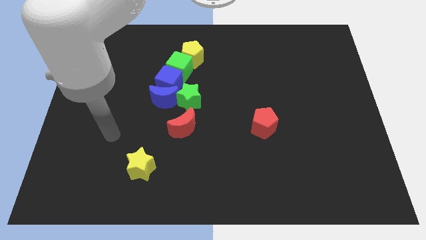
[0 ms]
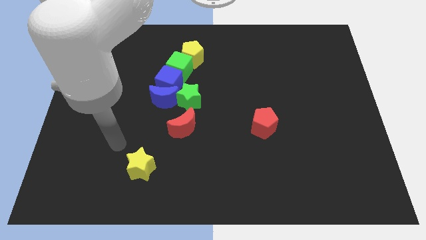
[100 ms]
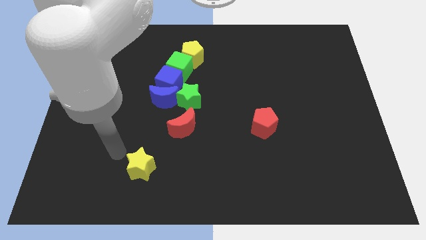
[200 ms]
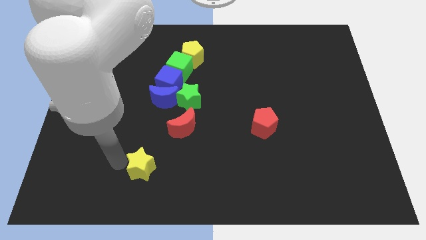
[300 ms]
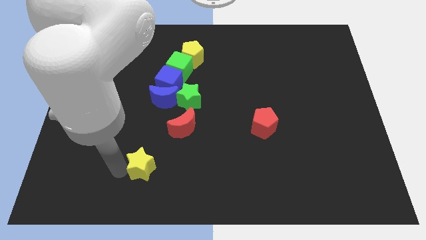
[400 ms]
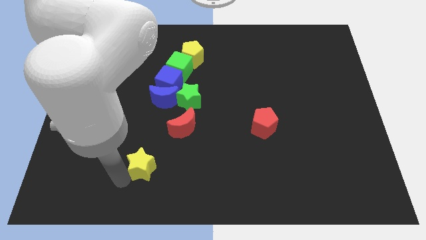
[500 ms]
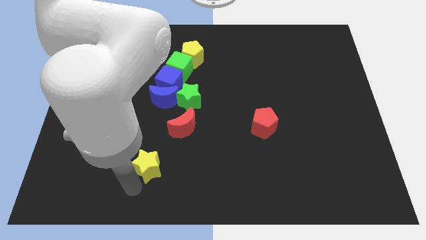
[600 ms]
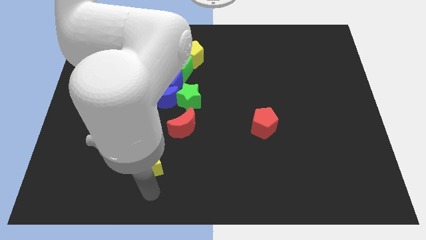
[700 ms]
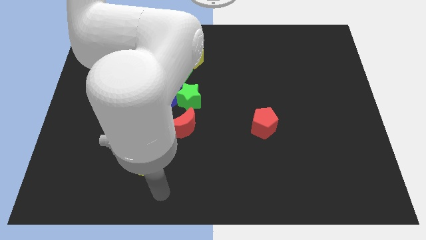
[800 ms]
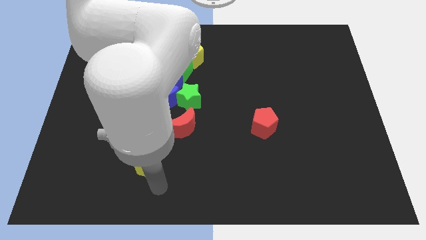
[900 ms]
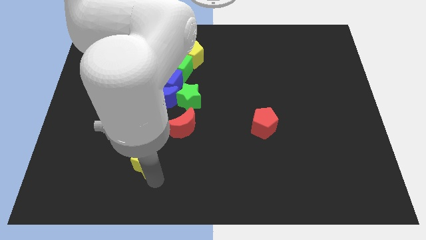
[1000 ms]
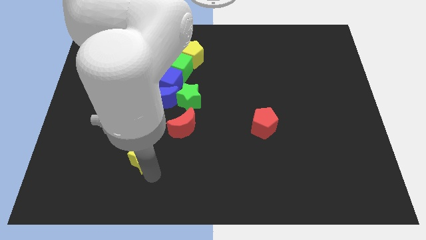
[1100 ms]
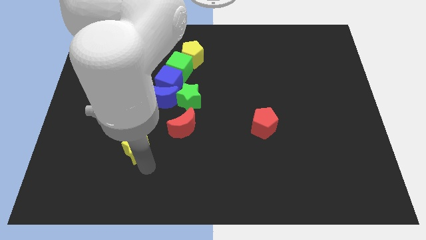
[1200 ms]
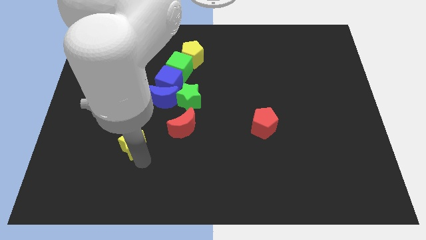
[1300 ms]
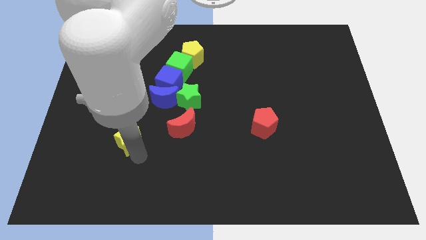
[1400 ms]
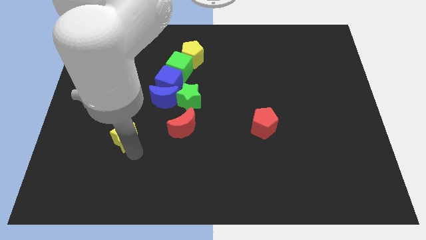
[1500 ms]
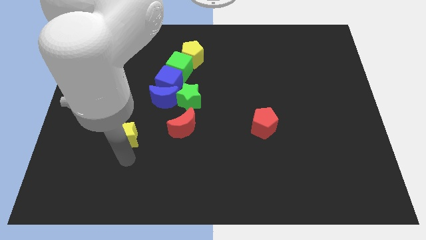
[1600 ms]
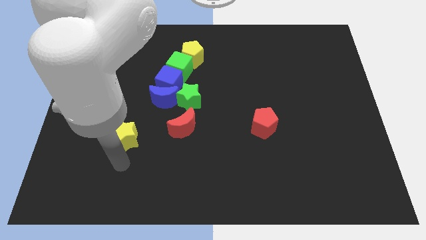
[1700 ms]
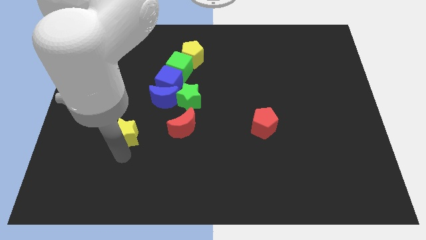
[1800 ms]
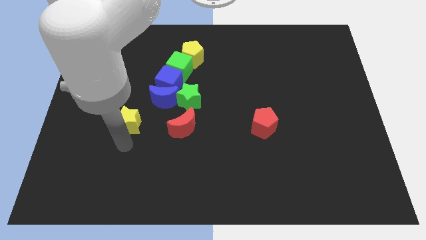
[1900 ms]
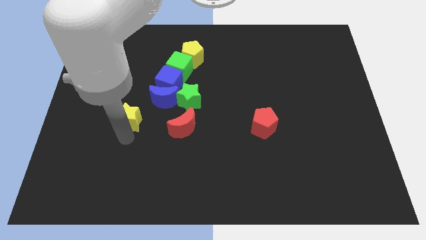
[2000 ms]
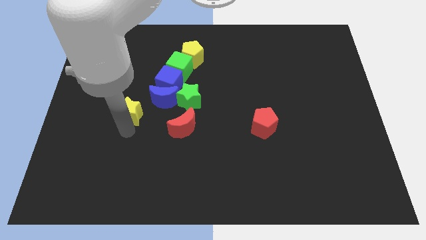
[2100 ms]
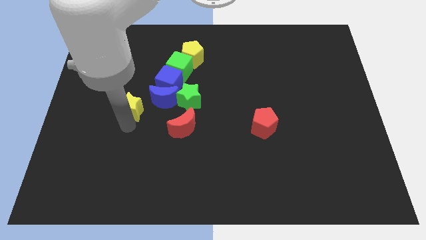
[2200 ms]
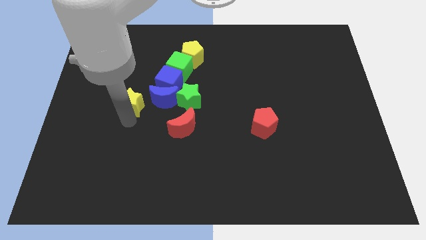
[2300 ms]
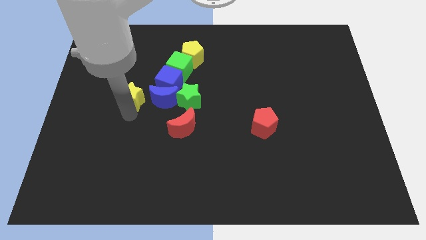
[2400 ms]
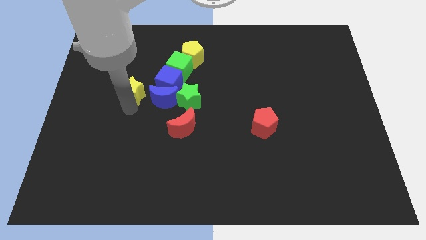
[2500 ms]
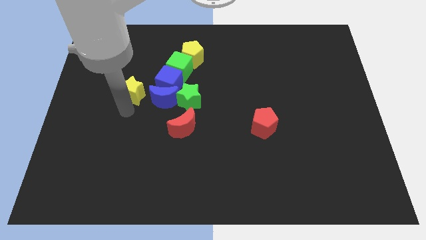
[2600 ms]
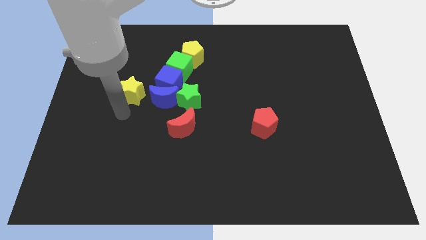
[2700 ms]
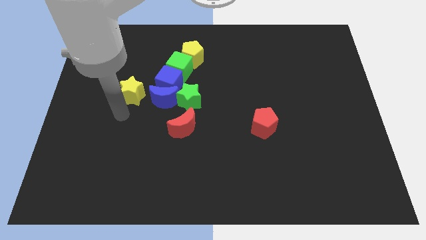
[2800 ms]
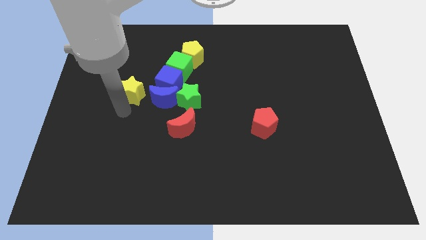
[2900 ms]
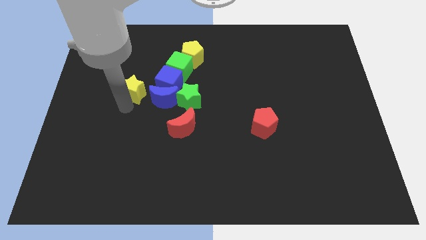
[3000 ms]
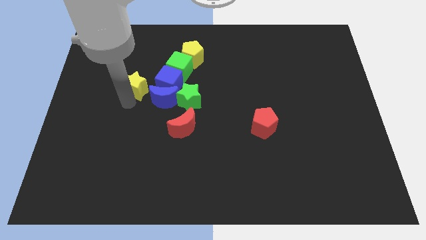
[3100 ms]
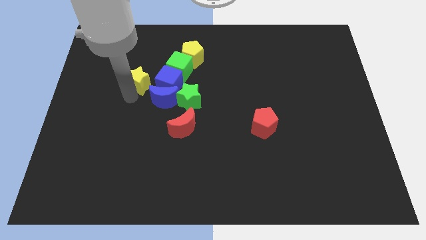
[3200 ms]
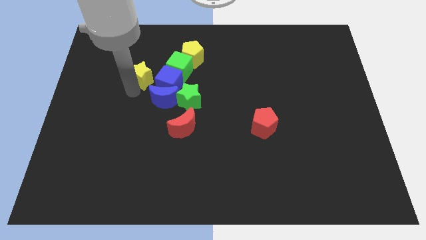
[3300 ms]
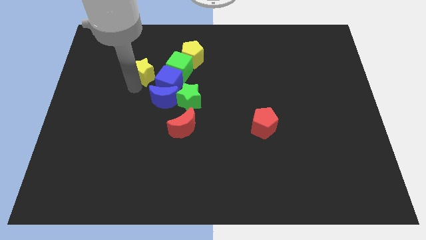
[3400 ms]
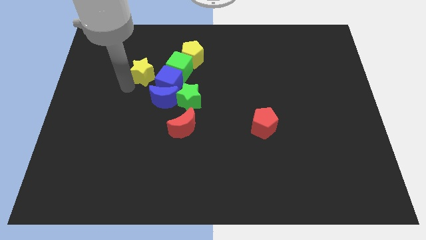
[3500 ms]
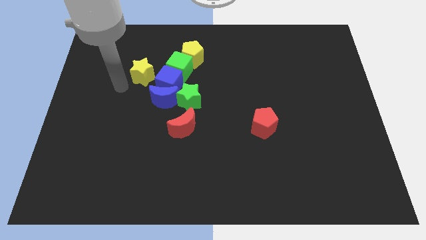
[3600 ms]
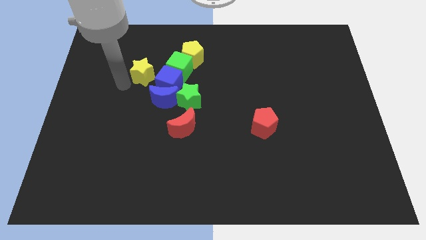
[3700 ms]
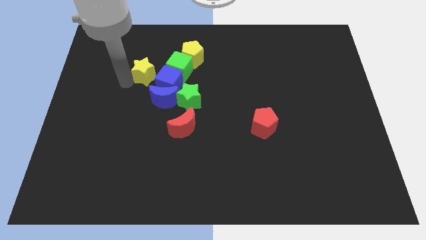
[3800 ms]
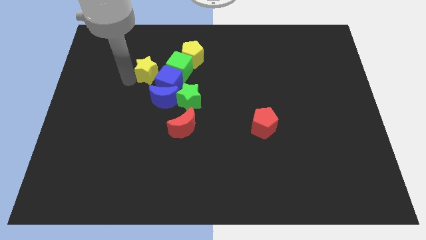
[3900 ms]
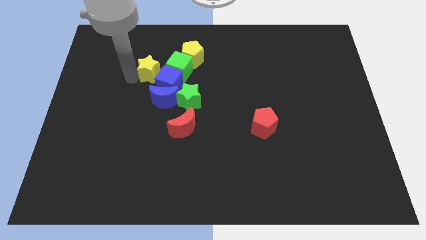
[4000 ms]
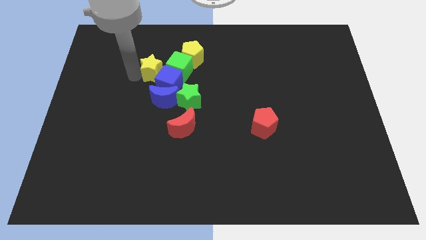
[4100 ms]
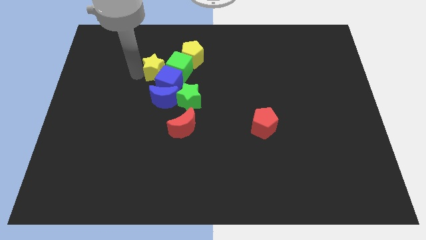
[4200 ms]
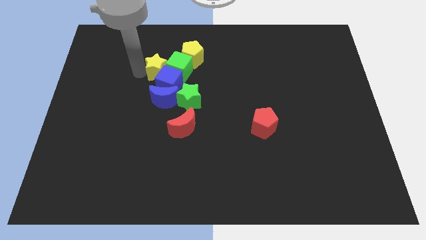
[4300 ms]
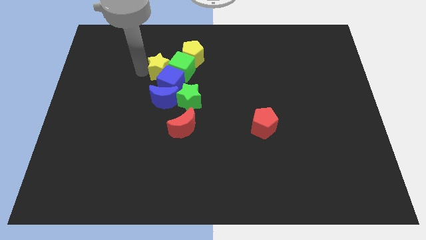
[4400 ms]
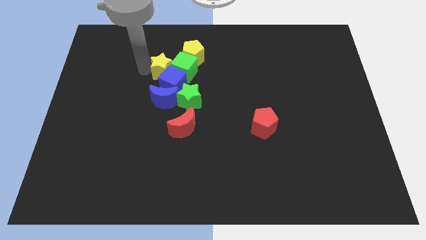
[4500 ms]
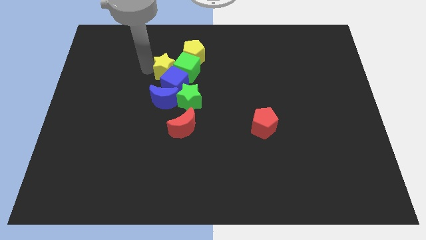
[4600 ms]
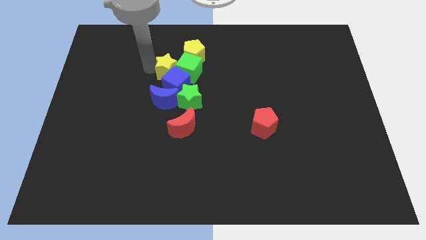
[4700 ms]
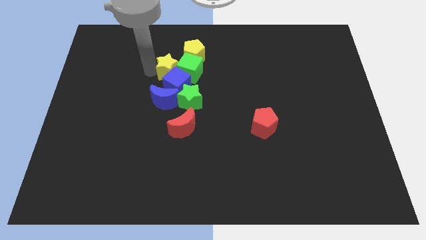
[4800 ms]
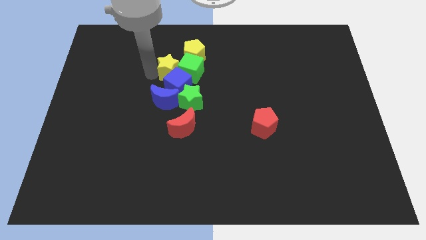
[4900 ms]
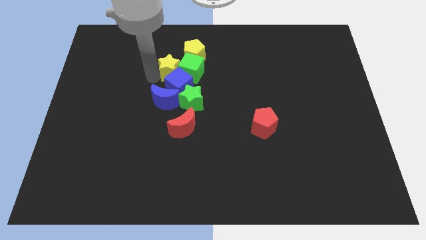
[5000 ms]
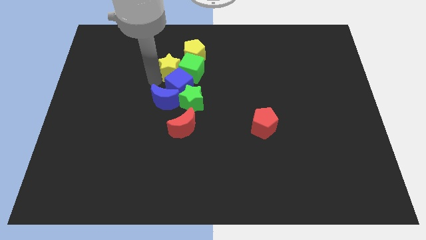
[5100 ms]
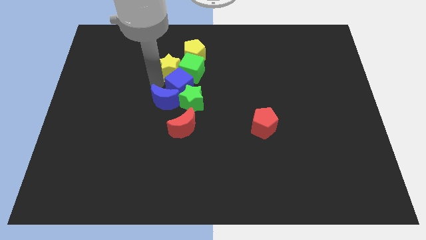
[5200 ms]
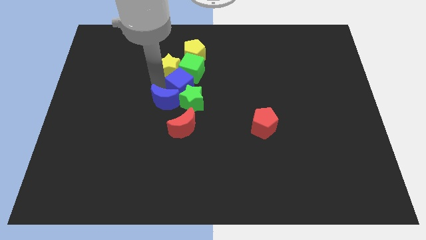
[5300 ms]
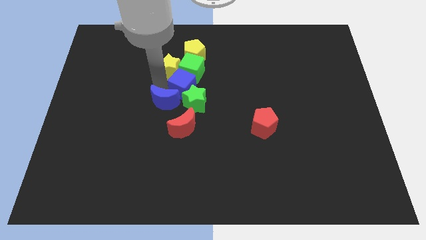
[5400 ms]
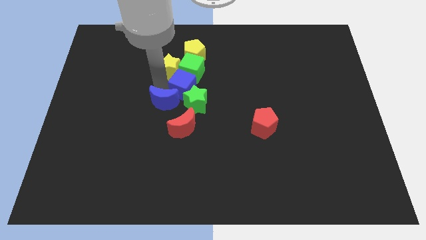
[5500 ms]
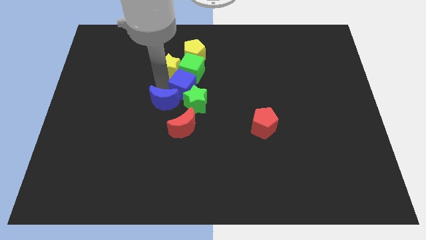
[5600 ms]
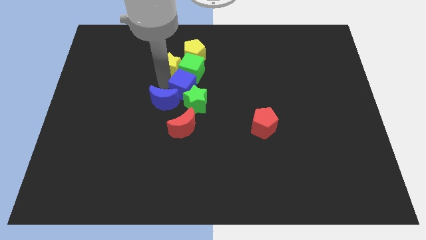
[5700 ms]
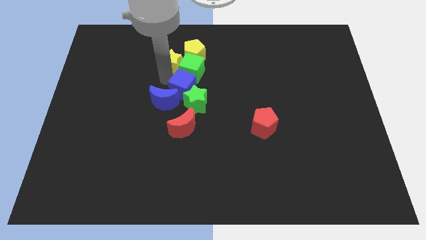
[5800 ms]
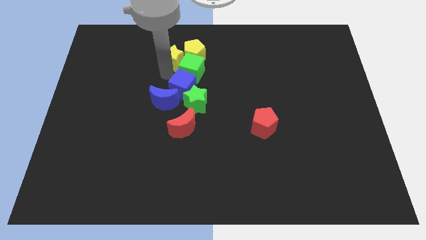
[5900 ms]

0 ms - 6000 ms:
push the yellow star close to the yellow pentagon

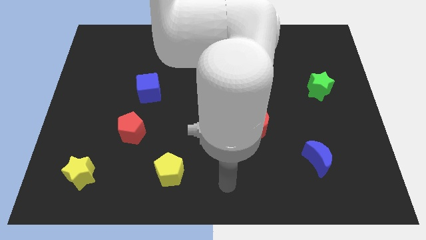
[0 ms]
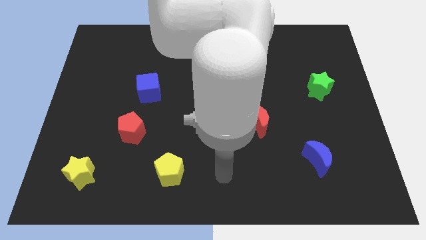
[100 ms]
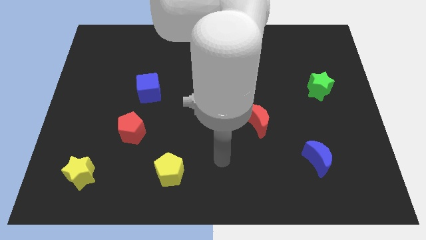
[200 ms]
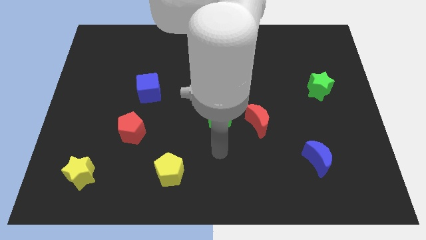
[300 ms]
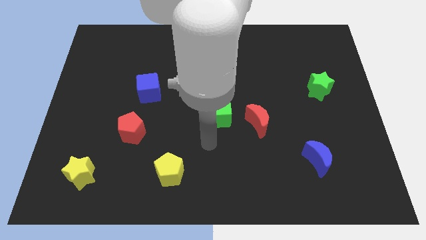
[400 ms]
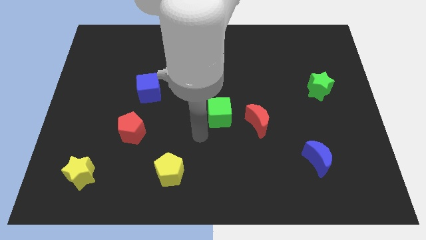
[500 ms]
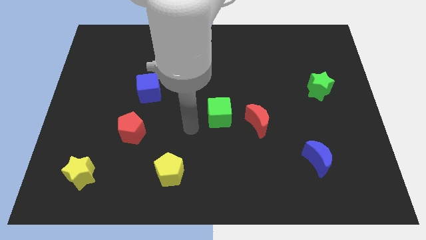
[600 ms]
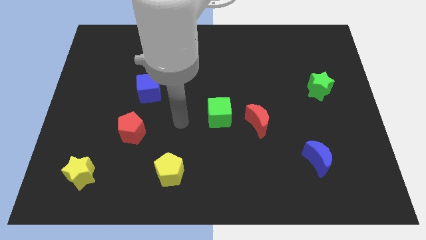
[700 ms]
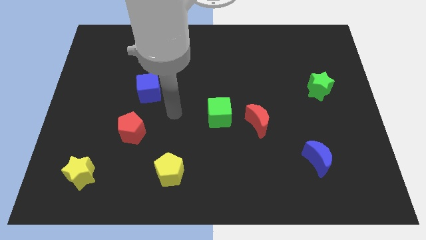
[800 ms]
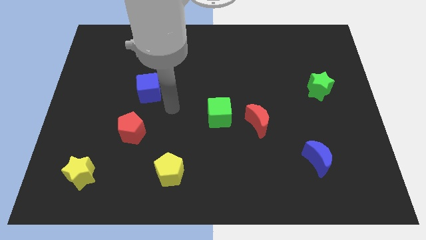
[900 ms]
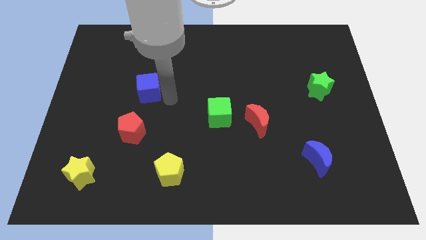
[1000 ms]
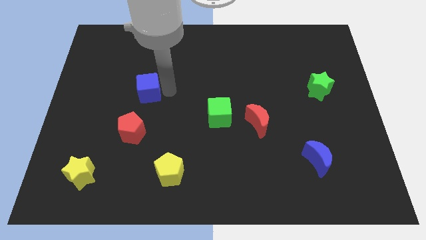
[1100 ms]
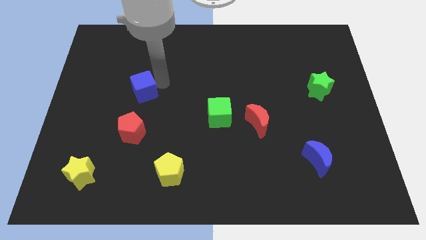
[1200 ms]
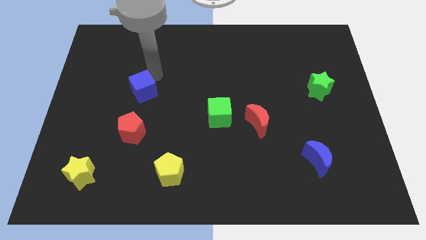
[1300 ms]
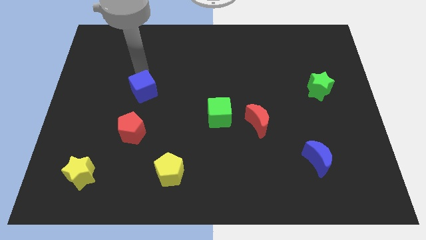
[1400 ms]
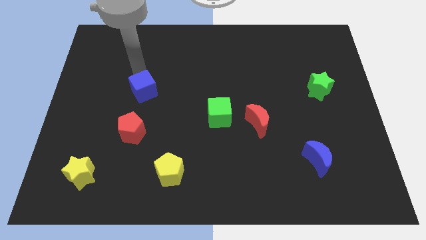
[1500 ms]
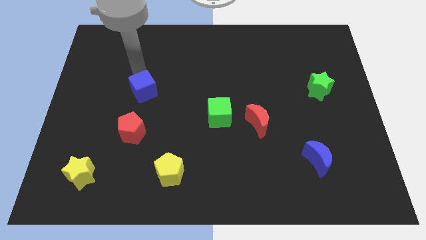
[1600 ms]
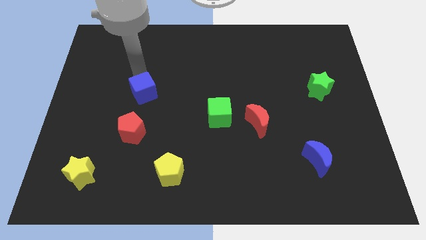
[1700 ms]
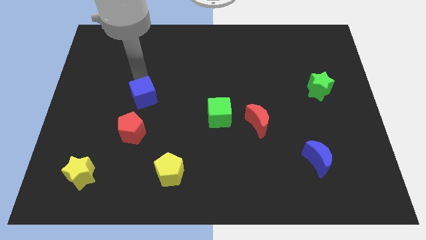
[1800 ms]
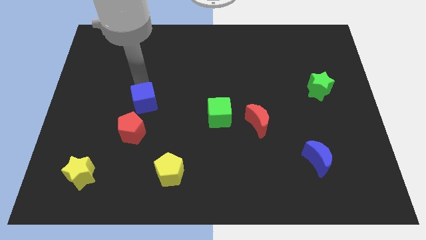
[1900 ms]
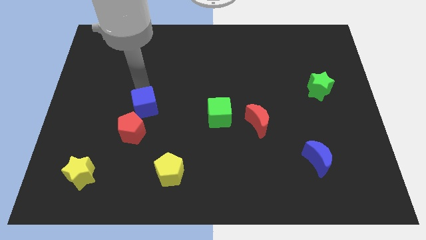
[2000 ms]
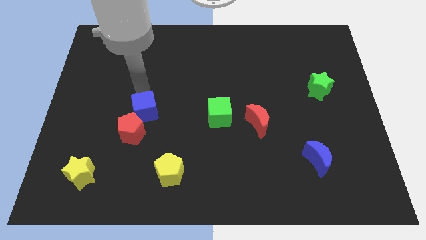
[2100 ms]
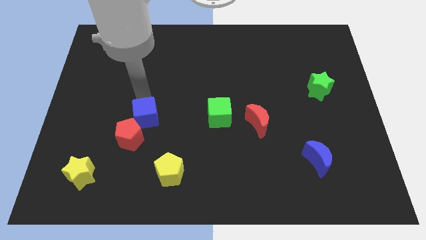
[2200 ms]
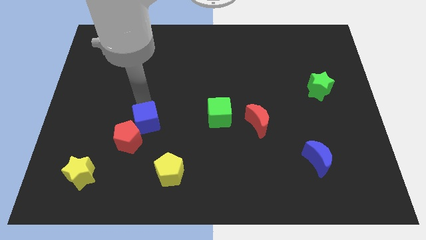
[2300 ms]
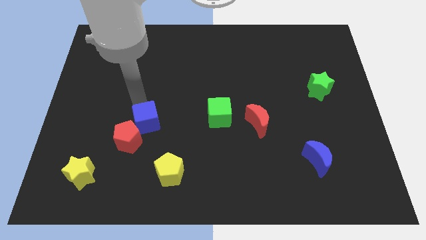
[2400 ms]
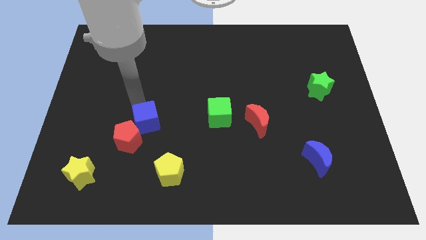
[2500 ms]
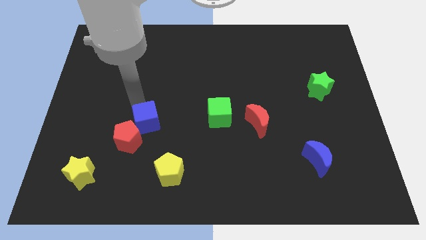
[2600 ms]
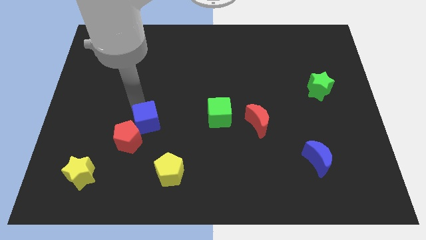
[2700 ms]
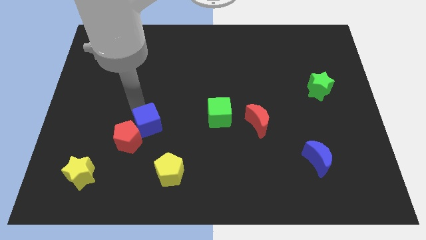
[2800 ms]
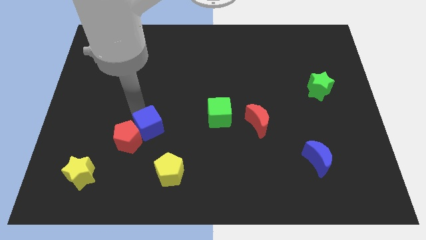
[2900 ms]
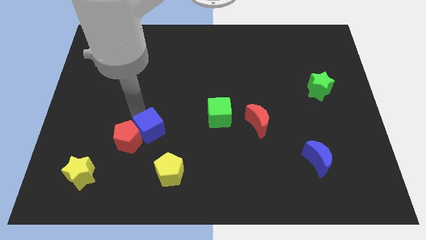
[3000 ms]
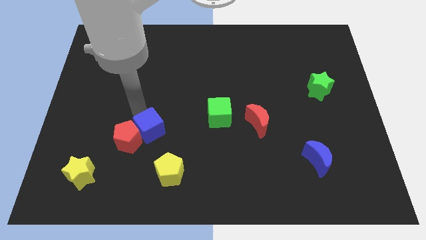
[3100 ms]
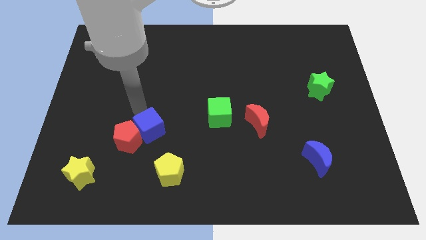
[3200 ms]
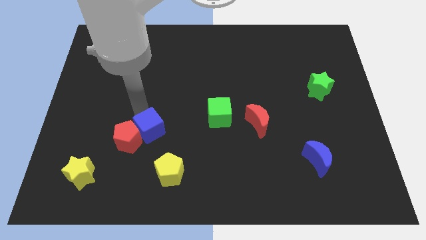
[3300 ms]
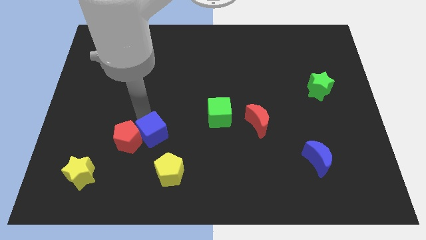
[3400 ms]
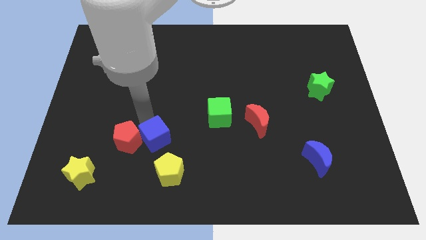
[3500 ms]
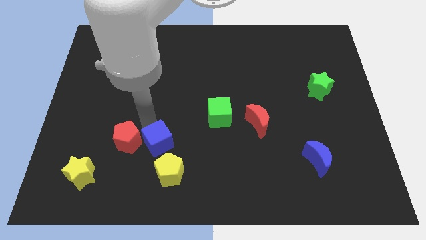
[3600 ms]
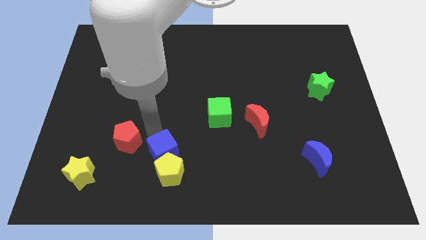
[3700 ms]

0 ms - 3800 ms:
slide the blue cube close to the yellow pentagon
